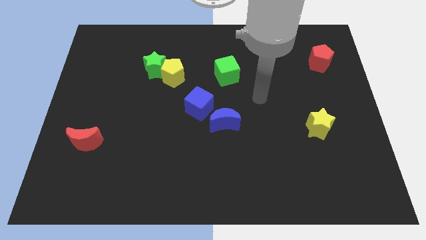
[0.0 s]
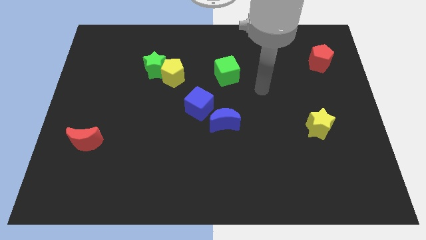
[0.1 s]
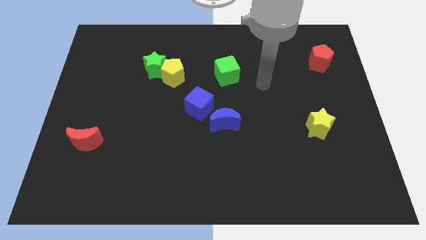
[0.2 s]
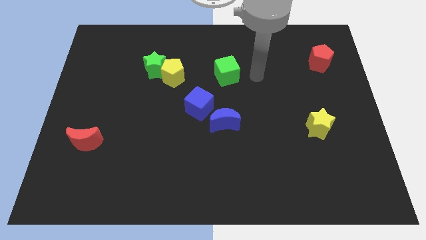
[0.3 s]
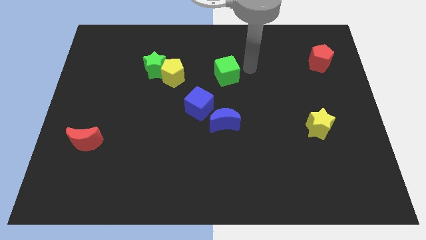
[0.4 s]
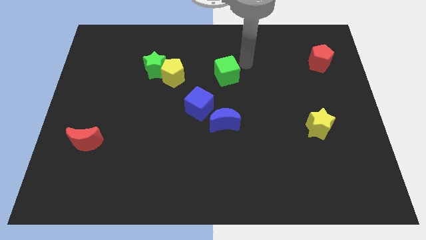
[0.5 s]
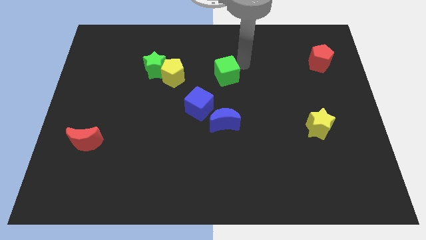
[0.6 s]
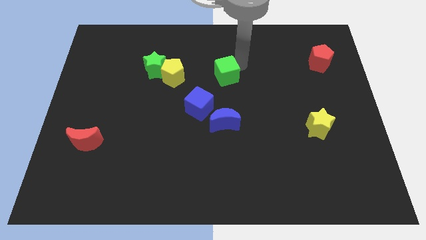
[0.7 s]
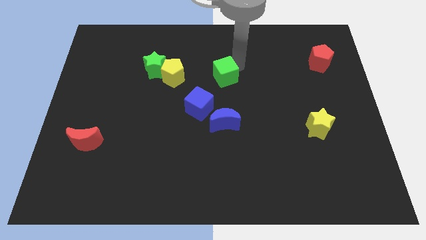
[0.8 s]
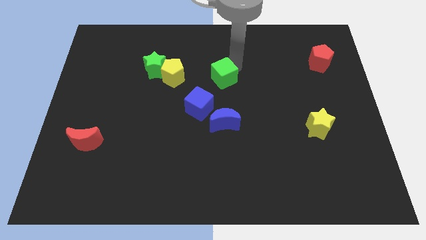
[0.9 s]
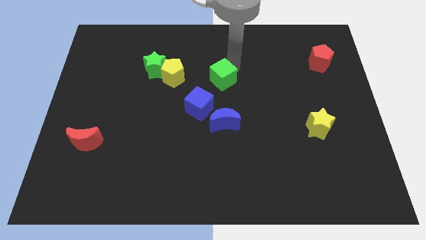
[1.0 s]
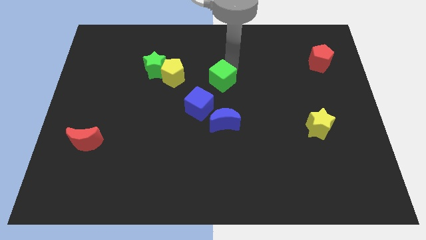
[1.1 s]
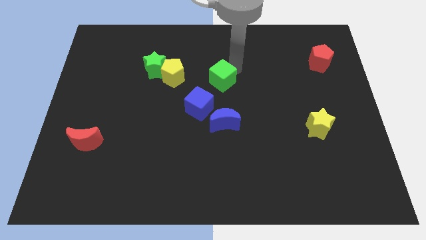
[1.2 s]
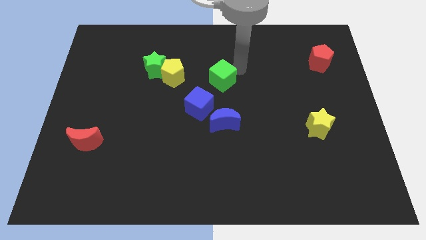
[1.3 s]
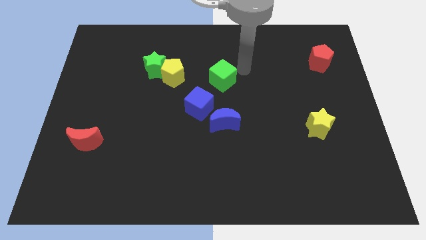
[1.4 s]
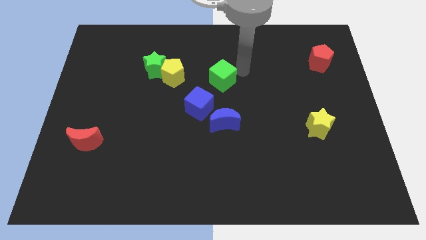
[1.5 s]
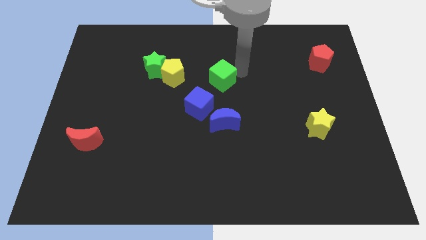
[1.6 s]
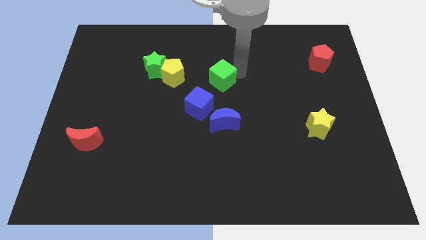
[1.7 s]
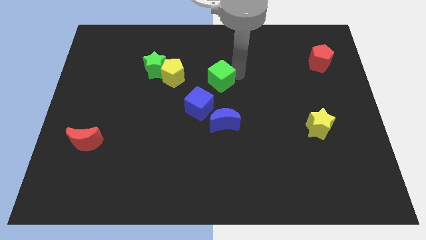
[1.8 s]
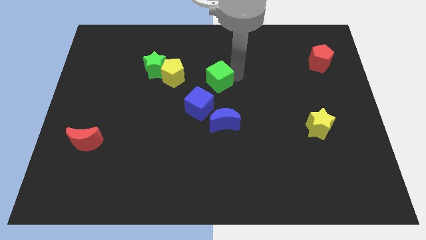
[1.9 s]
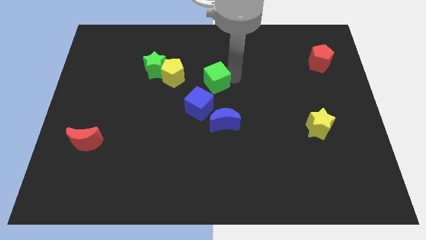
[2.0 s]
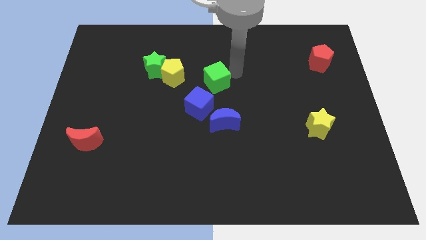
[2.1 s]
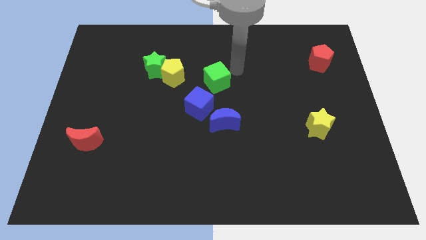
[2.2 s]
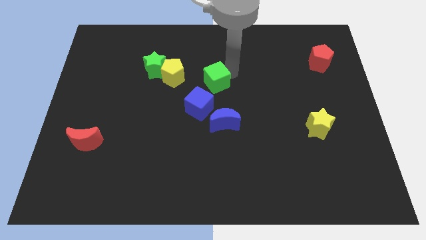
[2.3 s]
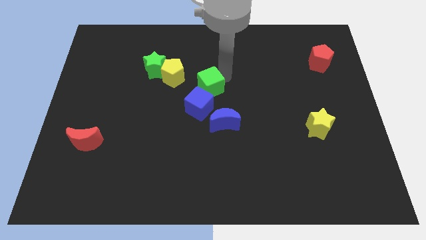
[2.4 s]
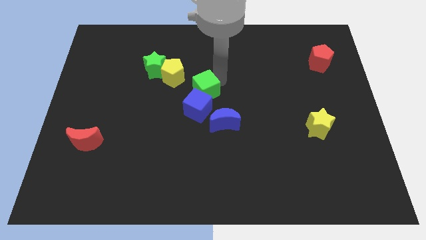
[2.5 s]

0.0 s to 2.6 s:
push the green cube down and left a bit

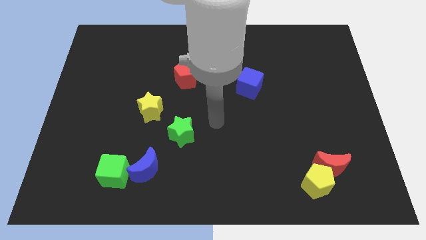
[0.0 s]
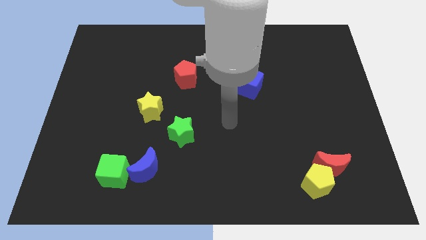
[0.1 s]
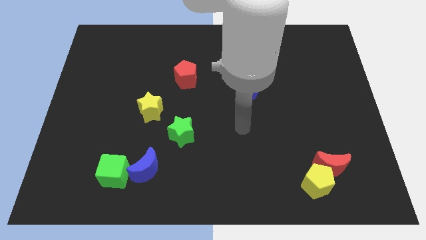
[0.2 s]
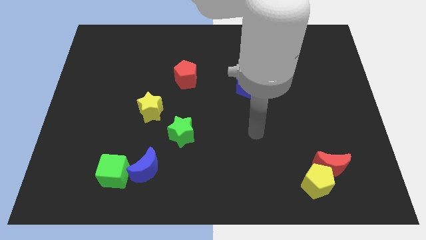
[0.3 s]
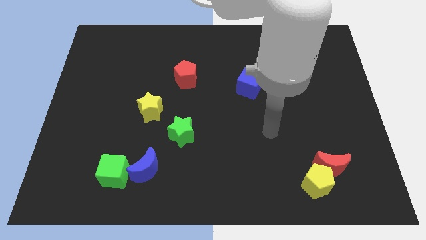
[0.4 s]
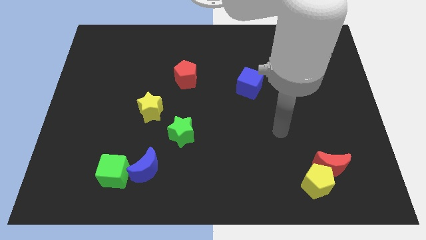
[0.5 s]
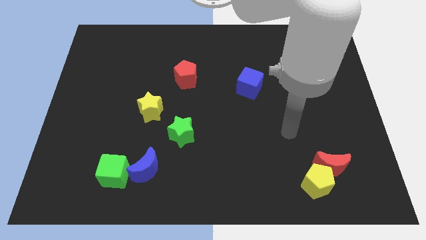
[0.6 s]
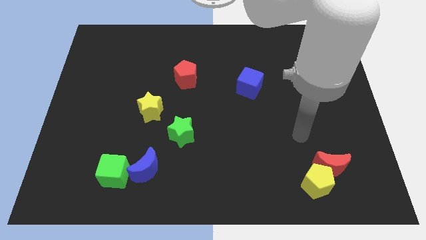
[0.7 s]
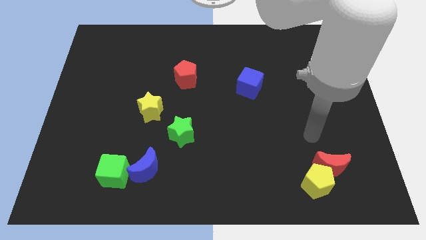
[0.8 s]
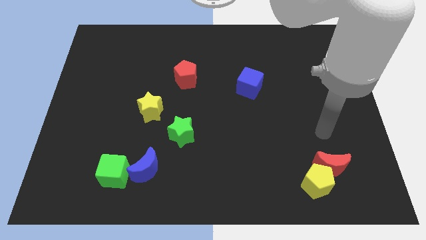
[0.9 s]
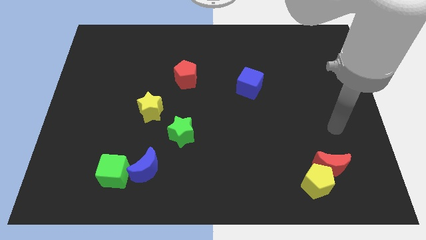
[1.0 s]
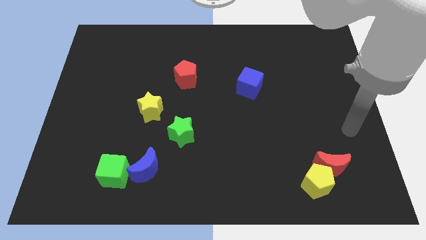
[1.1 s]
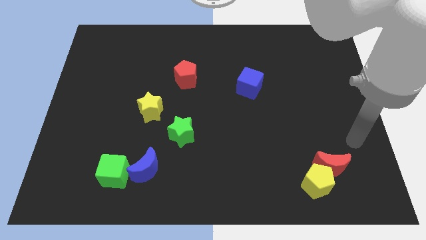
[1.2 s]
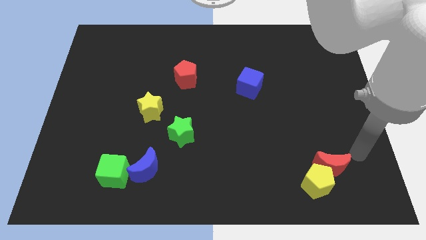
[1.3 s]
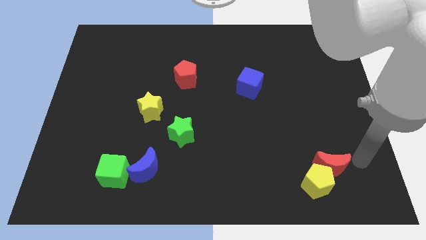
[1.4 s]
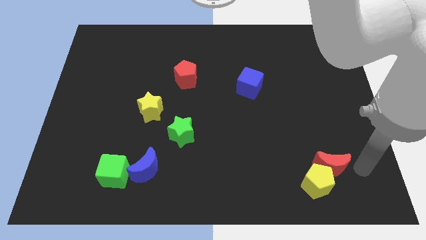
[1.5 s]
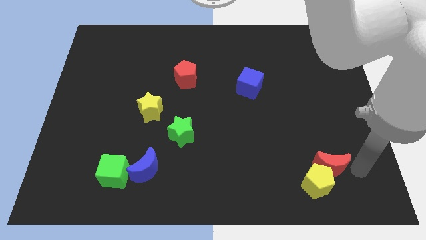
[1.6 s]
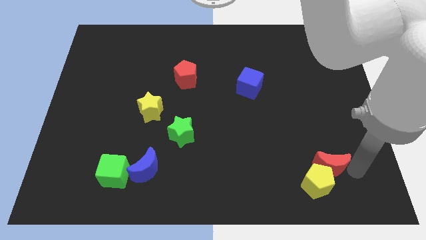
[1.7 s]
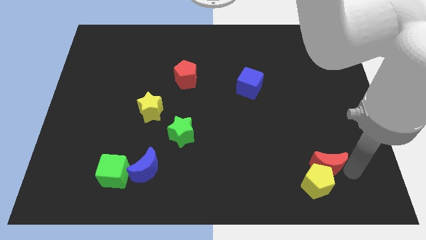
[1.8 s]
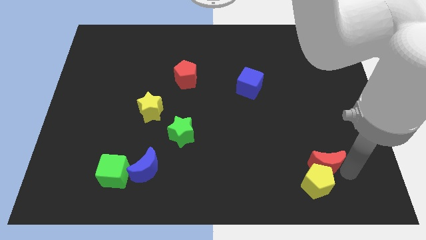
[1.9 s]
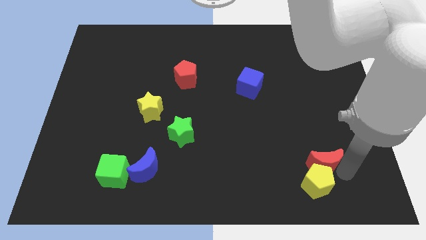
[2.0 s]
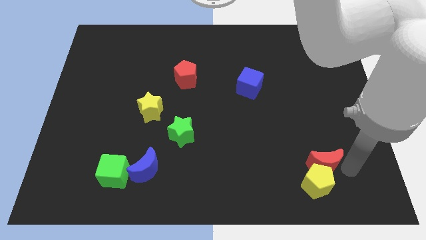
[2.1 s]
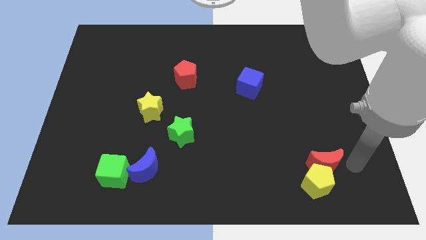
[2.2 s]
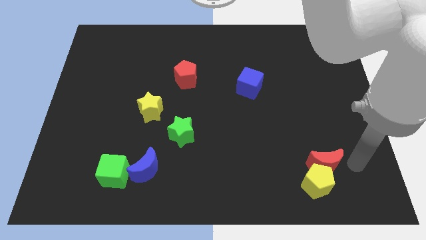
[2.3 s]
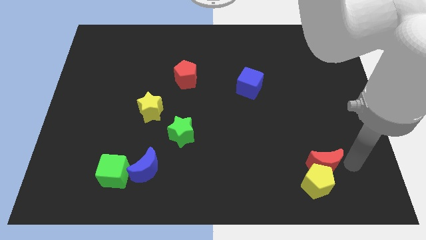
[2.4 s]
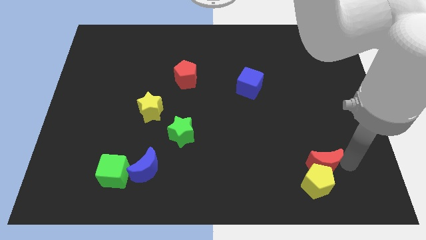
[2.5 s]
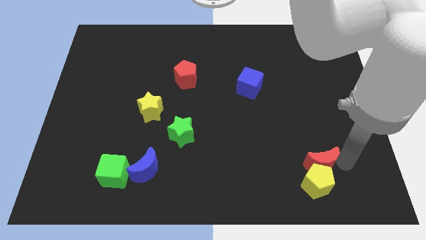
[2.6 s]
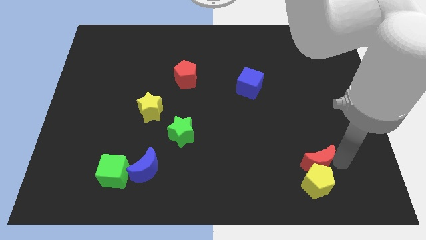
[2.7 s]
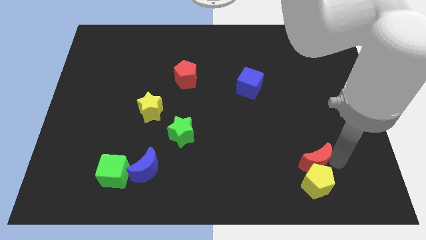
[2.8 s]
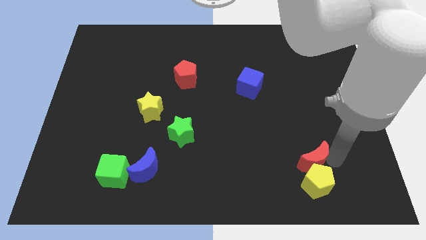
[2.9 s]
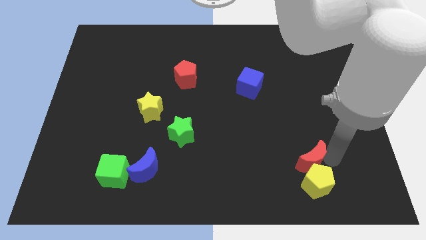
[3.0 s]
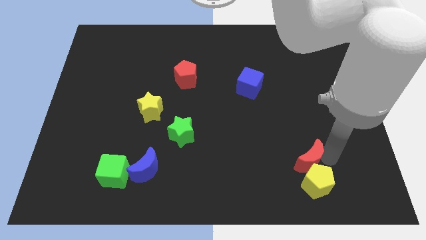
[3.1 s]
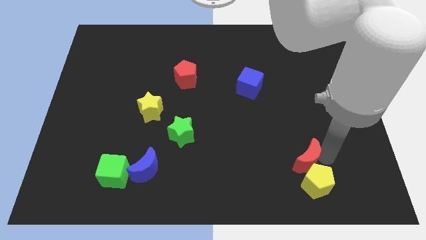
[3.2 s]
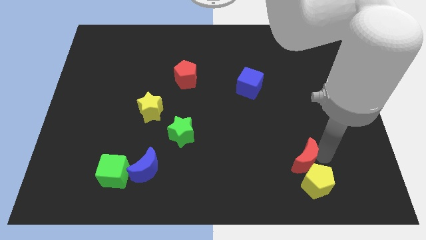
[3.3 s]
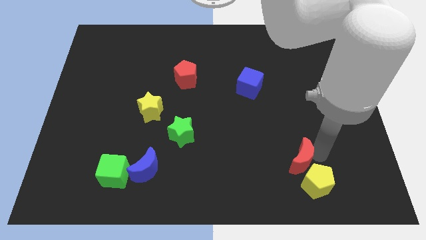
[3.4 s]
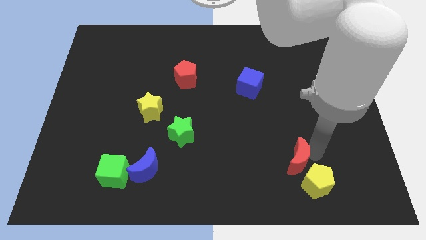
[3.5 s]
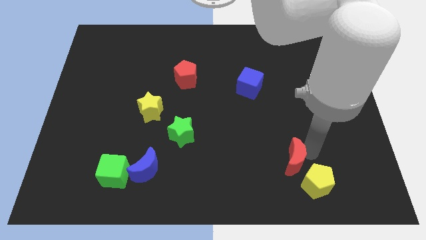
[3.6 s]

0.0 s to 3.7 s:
move the red moon slightly left

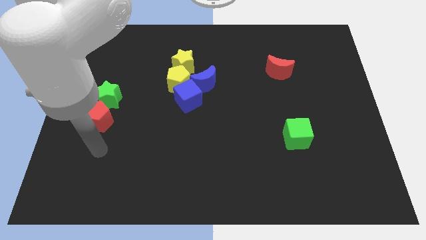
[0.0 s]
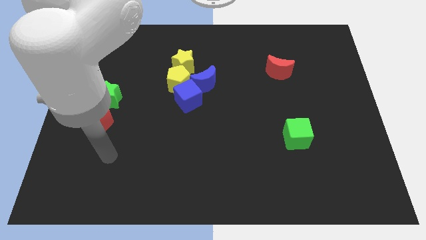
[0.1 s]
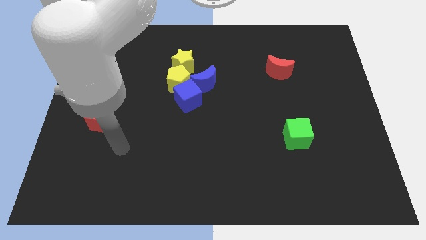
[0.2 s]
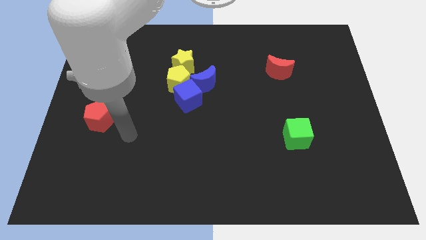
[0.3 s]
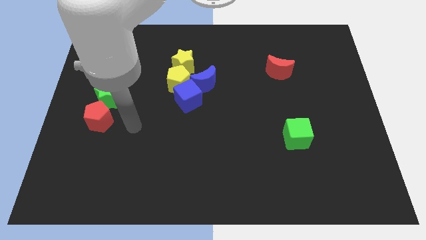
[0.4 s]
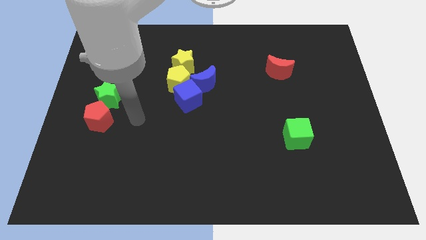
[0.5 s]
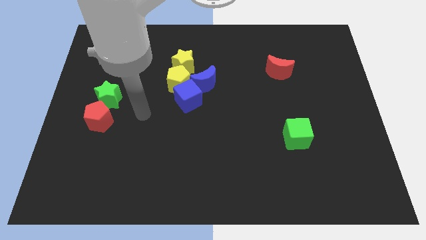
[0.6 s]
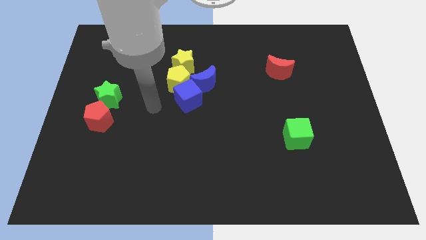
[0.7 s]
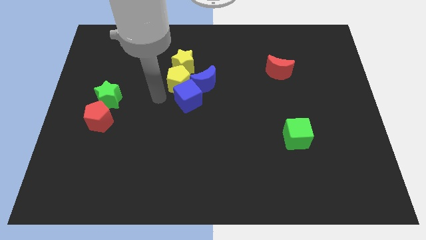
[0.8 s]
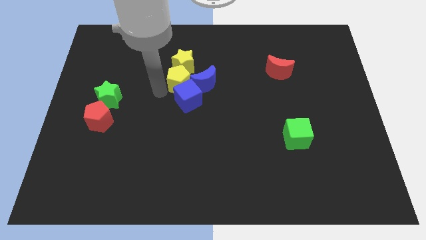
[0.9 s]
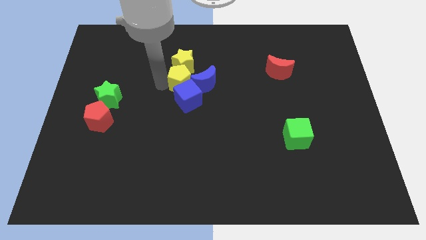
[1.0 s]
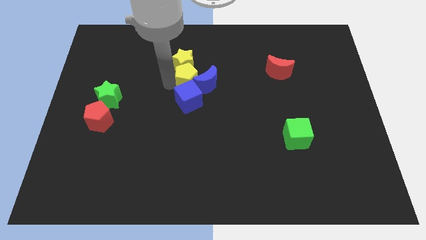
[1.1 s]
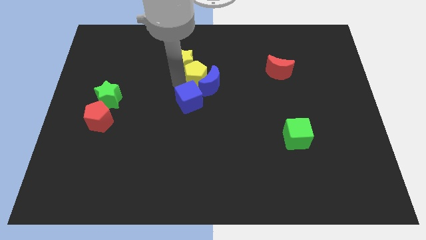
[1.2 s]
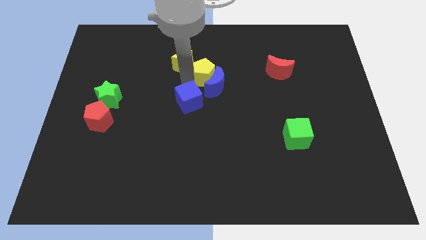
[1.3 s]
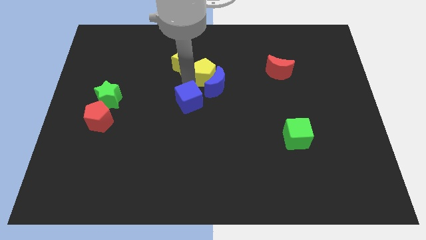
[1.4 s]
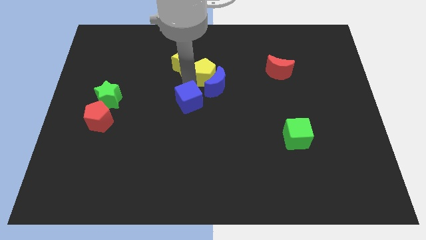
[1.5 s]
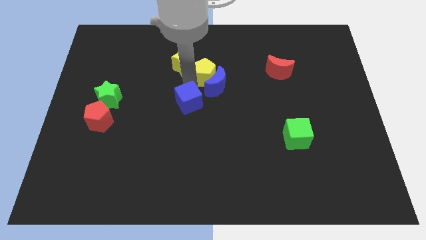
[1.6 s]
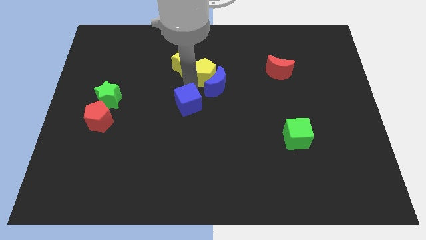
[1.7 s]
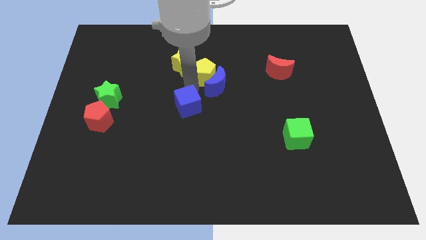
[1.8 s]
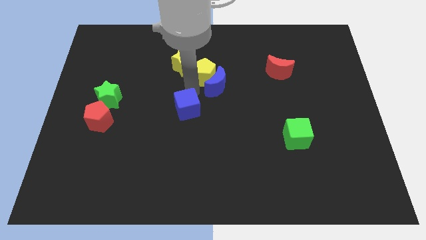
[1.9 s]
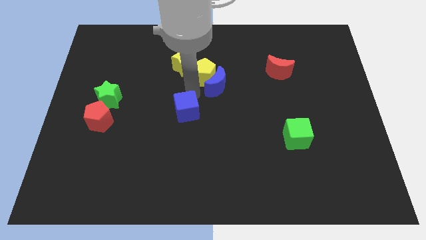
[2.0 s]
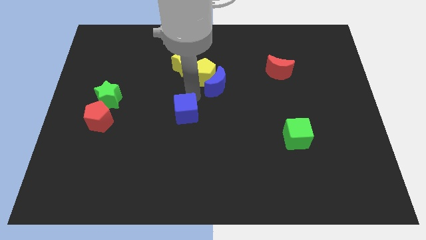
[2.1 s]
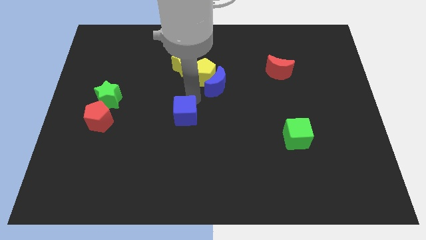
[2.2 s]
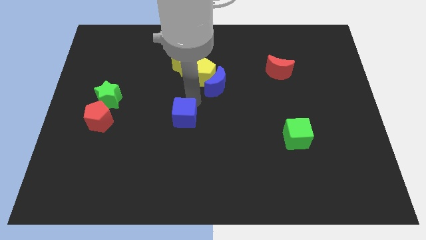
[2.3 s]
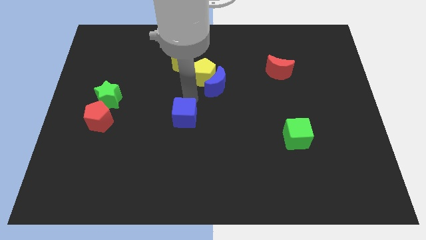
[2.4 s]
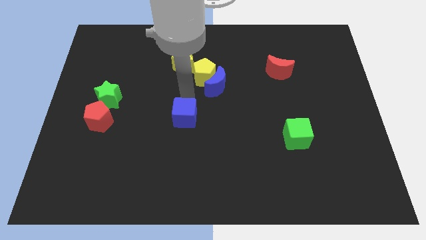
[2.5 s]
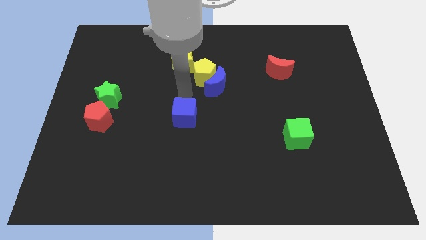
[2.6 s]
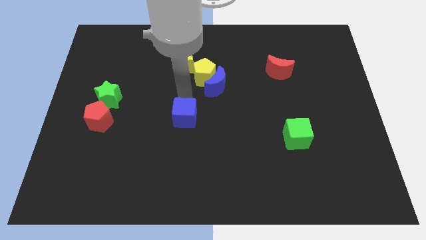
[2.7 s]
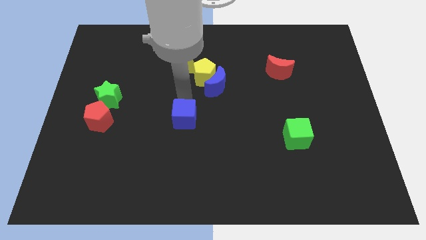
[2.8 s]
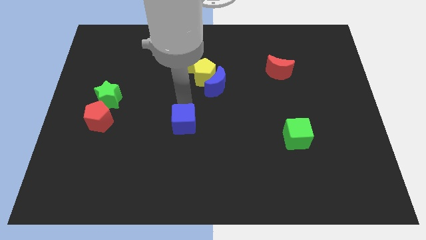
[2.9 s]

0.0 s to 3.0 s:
slide the blue cube down a bit
